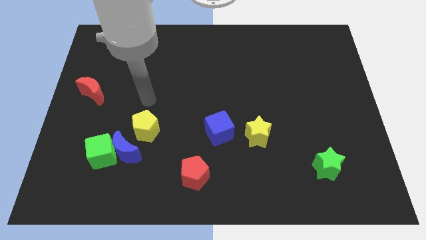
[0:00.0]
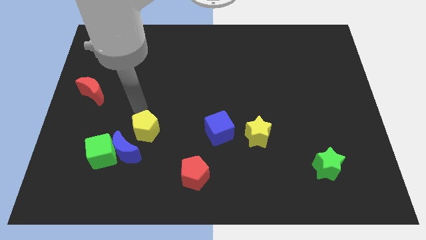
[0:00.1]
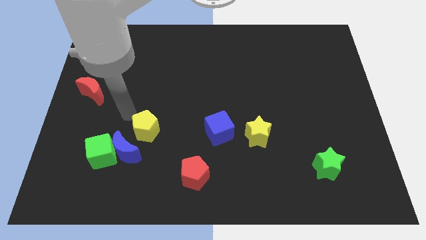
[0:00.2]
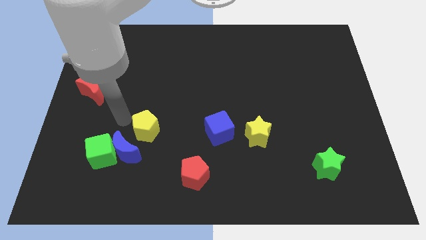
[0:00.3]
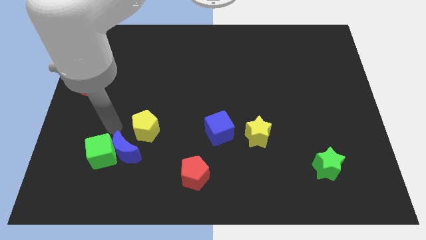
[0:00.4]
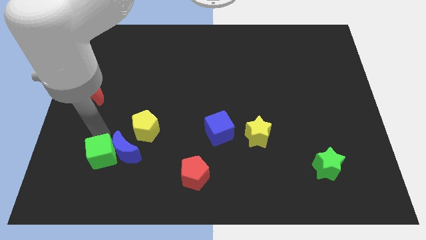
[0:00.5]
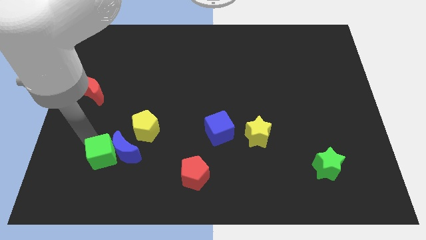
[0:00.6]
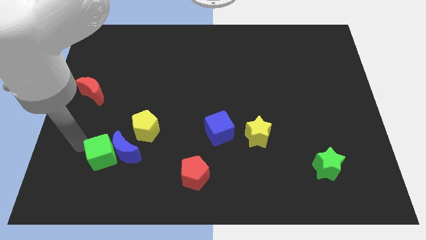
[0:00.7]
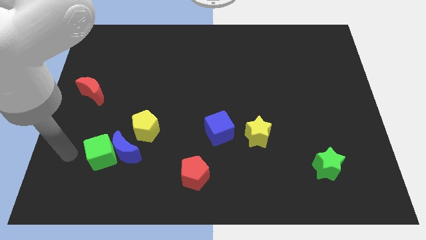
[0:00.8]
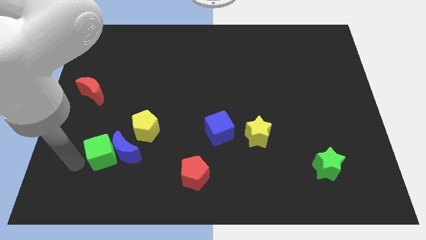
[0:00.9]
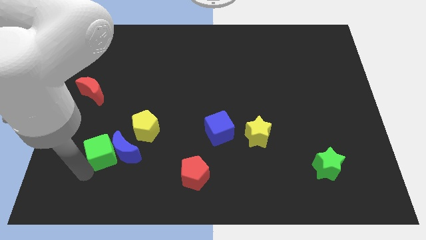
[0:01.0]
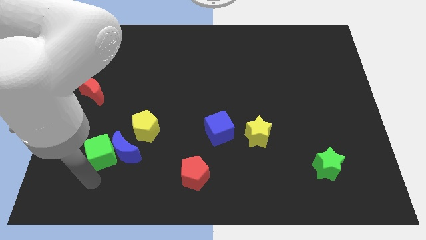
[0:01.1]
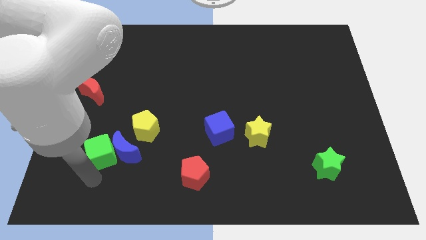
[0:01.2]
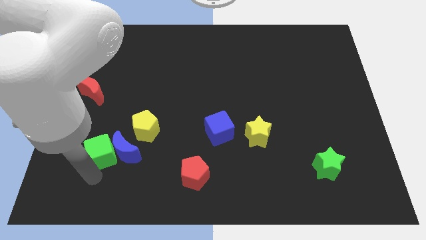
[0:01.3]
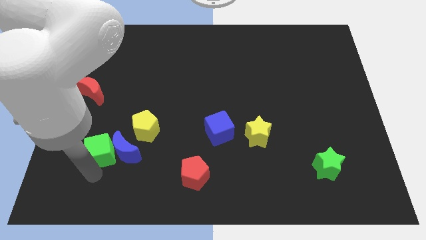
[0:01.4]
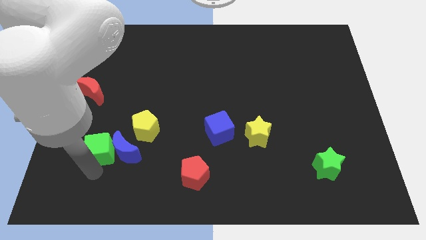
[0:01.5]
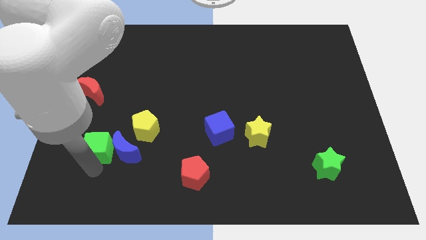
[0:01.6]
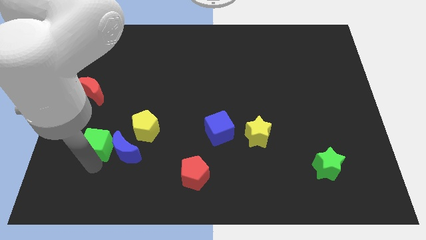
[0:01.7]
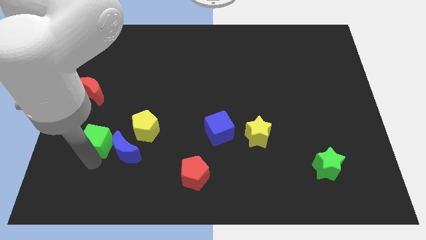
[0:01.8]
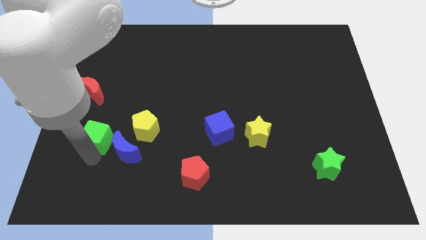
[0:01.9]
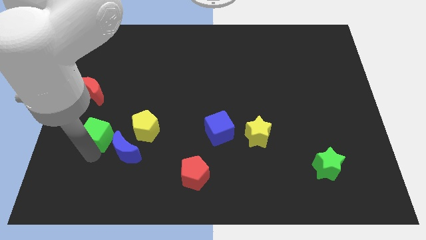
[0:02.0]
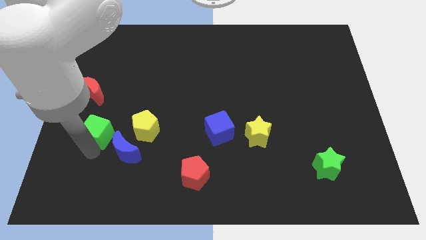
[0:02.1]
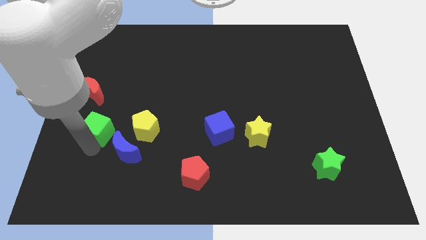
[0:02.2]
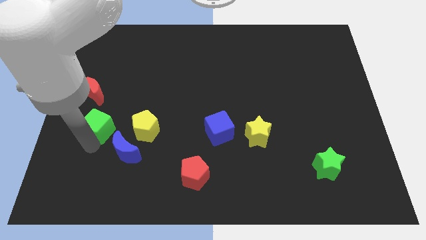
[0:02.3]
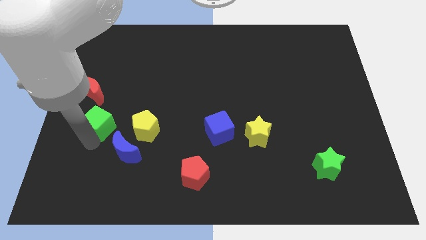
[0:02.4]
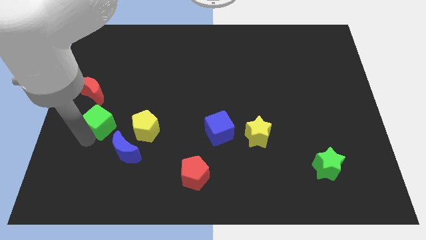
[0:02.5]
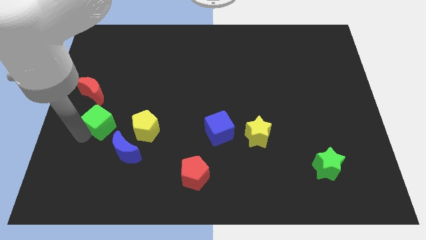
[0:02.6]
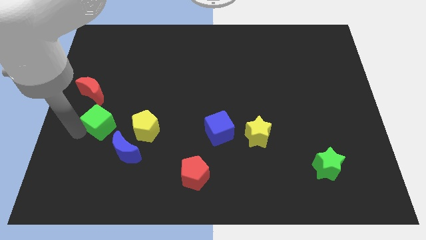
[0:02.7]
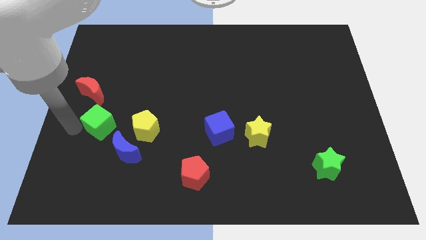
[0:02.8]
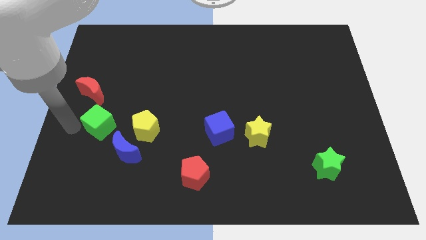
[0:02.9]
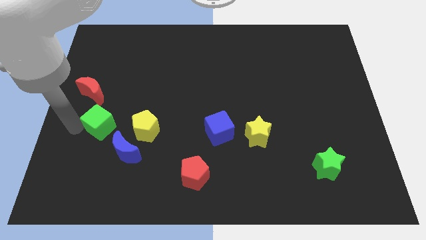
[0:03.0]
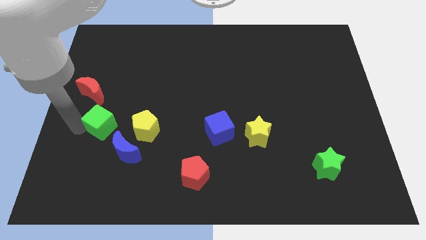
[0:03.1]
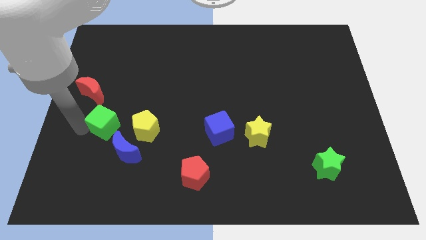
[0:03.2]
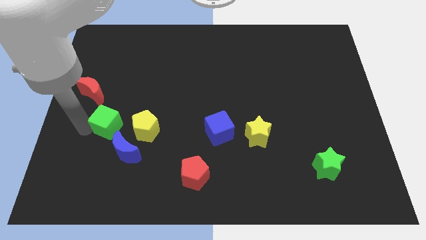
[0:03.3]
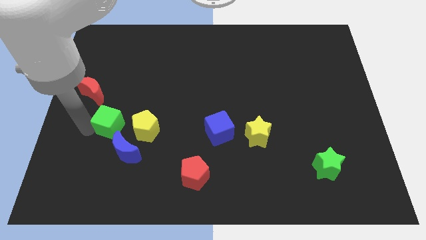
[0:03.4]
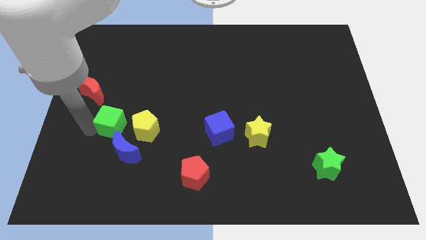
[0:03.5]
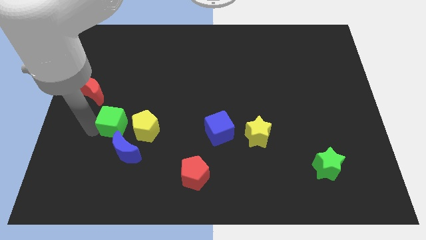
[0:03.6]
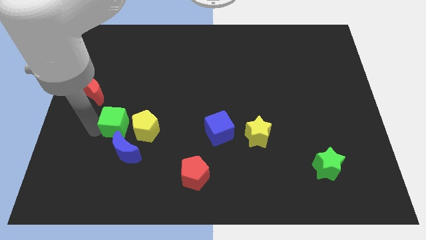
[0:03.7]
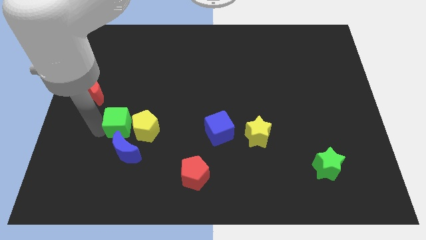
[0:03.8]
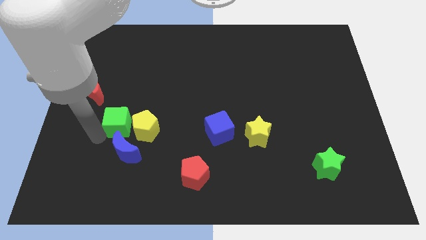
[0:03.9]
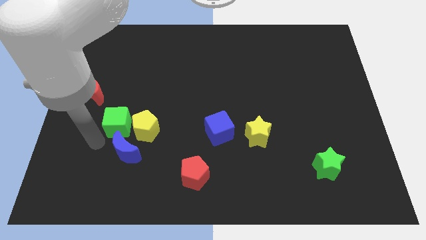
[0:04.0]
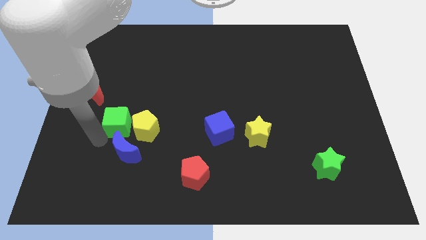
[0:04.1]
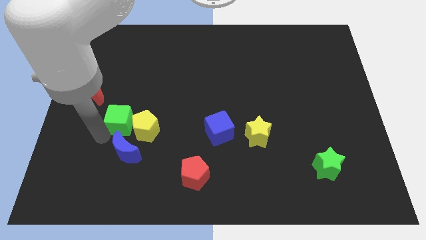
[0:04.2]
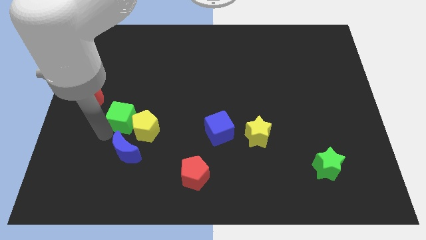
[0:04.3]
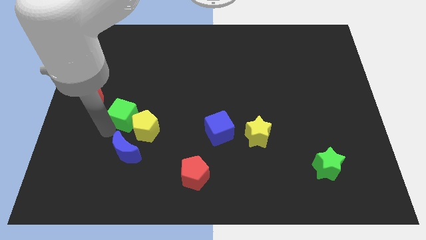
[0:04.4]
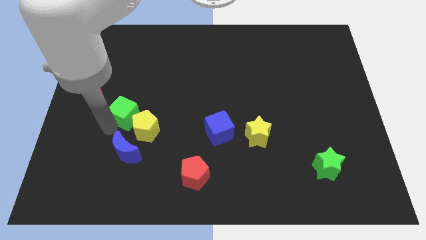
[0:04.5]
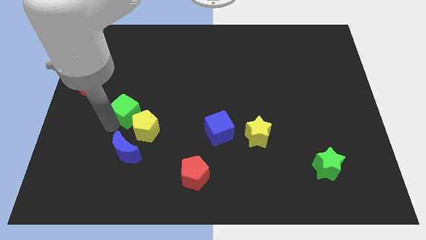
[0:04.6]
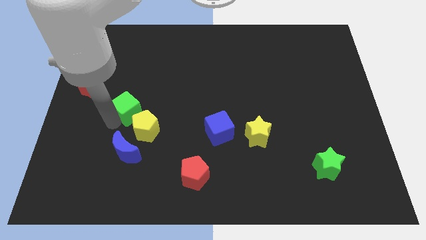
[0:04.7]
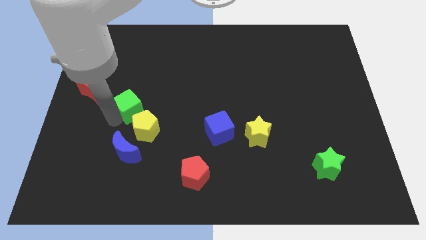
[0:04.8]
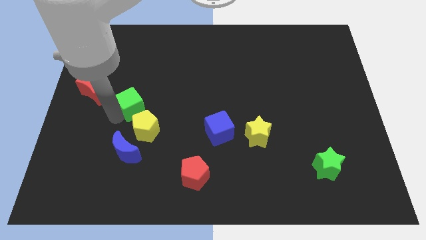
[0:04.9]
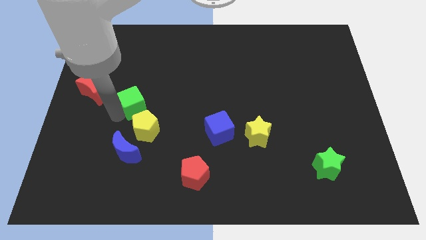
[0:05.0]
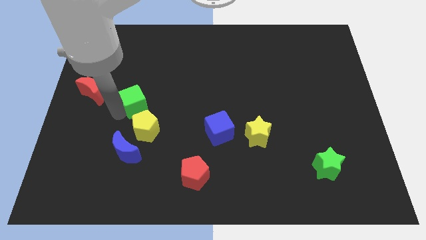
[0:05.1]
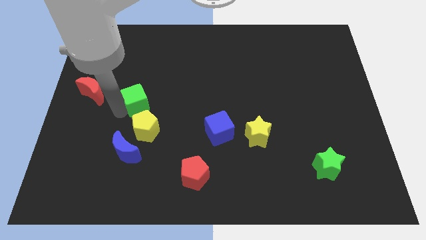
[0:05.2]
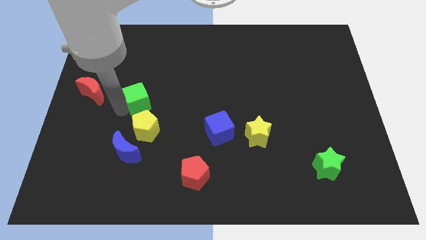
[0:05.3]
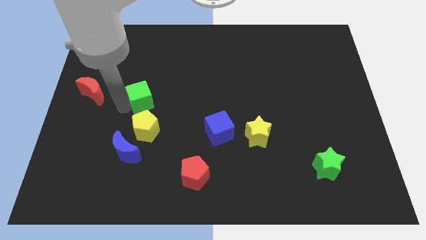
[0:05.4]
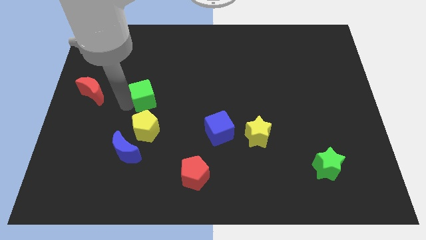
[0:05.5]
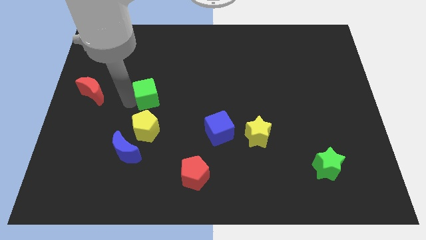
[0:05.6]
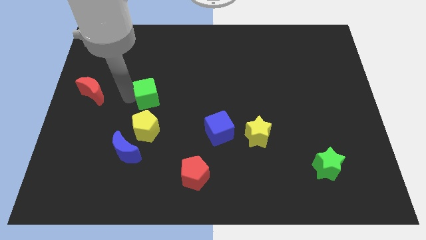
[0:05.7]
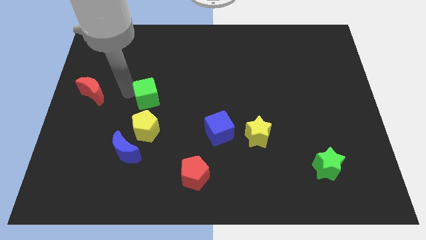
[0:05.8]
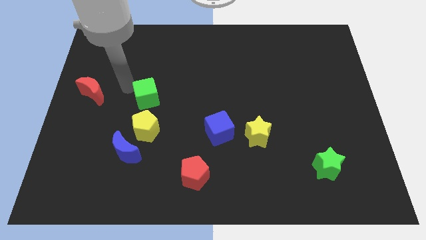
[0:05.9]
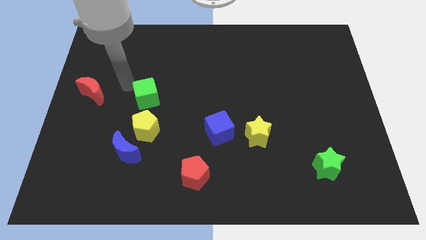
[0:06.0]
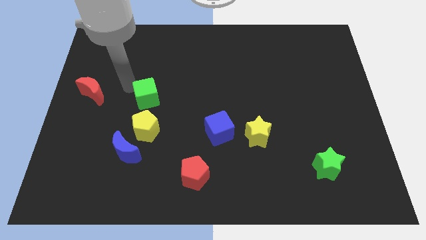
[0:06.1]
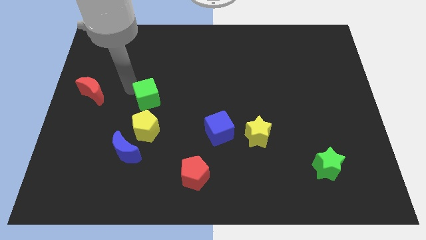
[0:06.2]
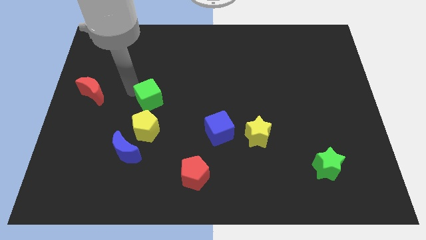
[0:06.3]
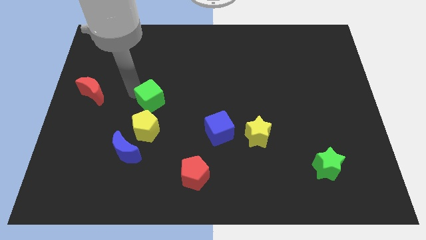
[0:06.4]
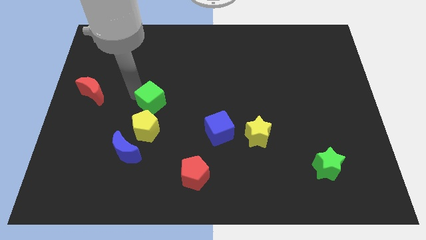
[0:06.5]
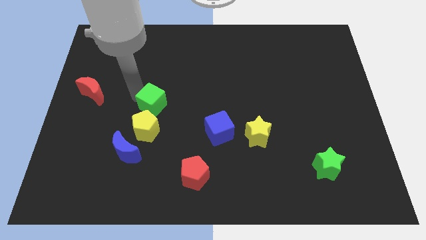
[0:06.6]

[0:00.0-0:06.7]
push the green cube diagonally up and to the right of the yellow pentagon
